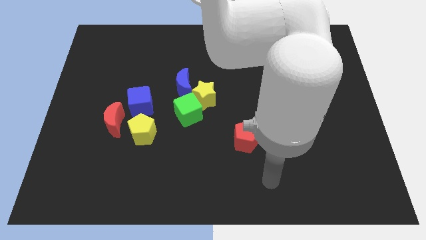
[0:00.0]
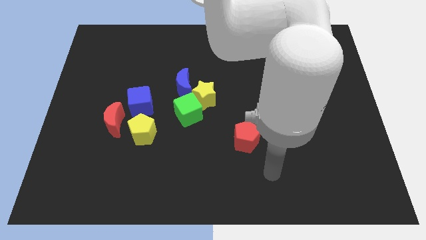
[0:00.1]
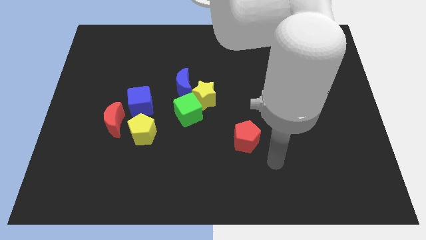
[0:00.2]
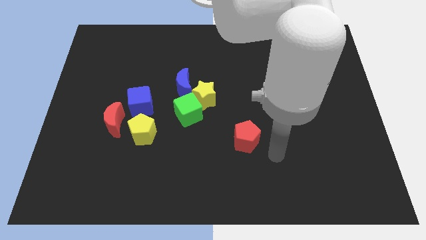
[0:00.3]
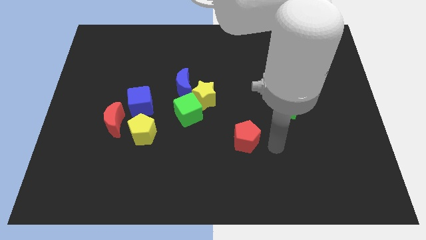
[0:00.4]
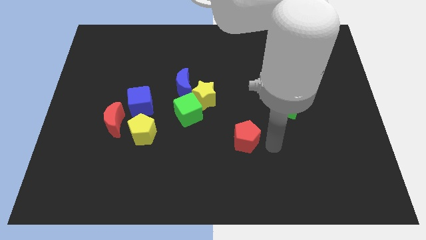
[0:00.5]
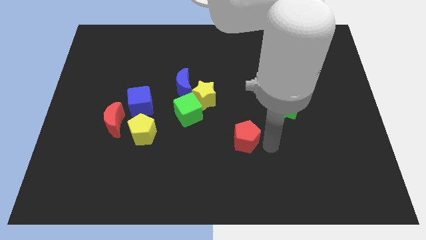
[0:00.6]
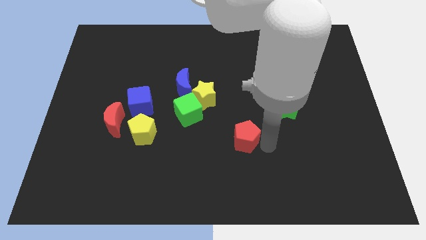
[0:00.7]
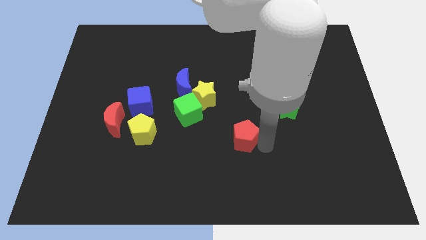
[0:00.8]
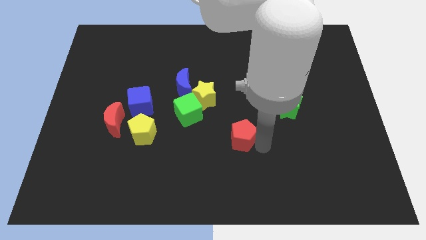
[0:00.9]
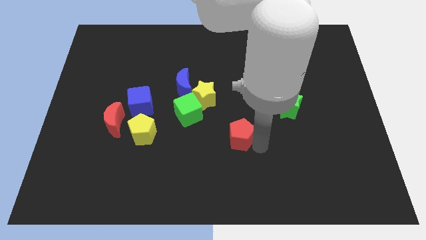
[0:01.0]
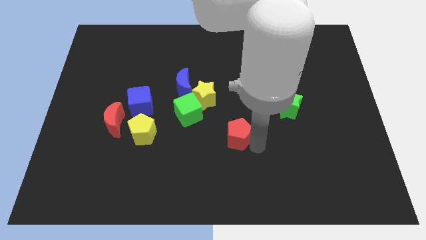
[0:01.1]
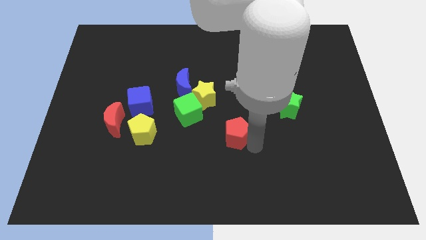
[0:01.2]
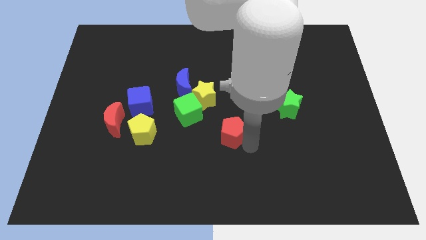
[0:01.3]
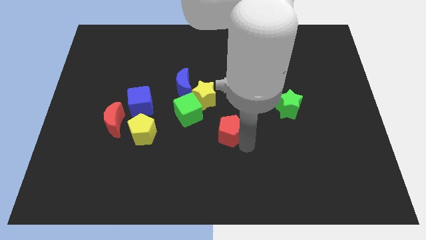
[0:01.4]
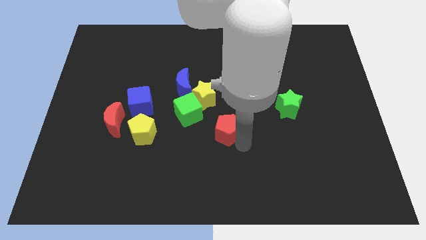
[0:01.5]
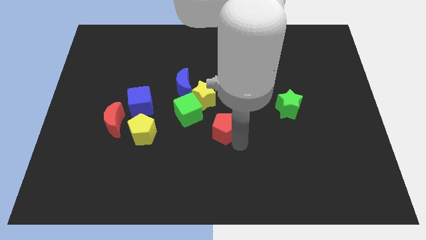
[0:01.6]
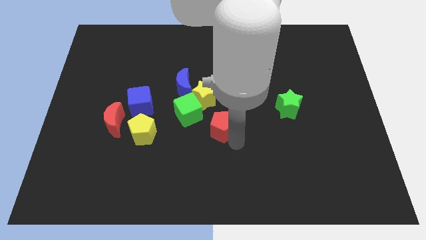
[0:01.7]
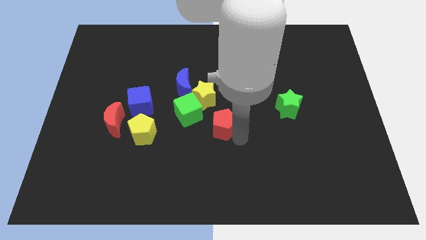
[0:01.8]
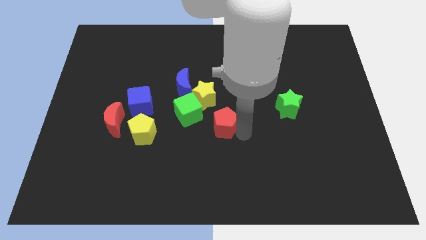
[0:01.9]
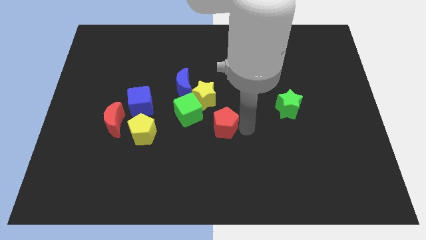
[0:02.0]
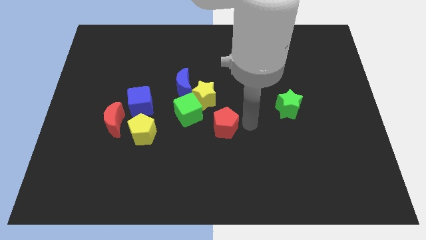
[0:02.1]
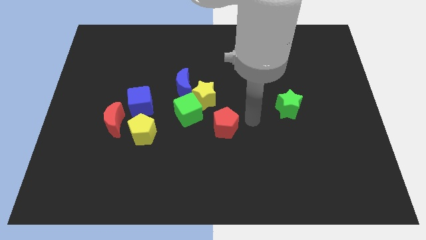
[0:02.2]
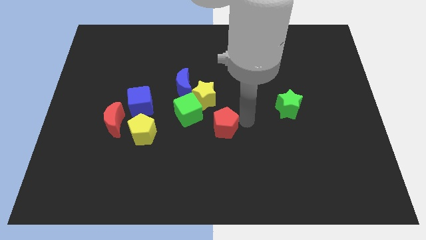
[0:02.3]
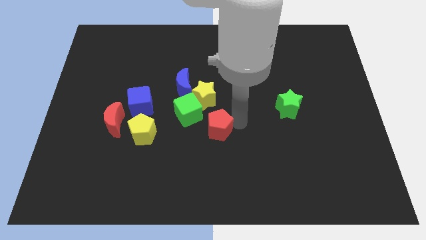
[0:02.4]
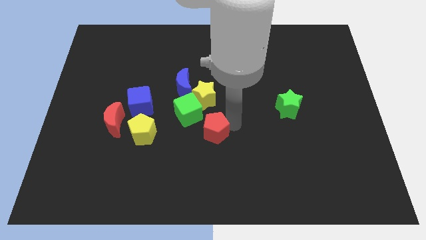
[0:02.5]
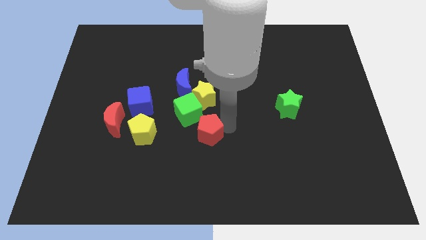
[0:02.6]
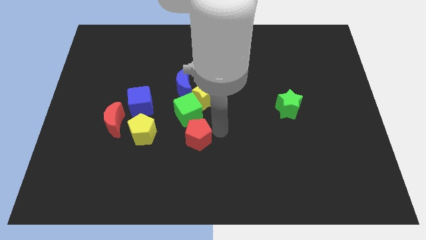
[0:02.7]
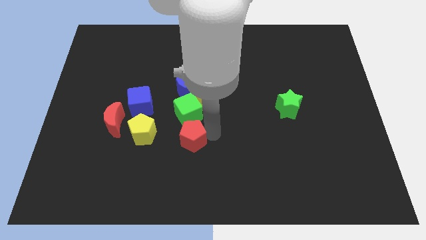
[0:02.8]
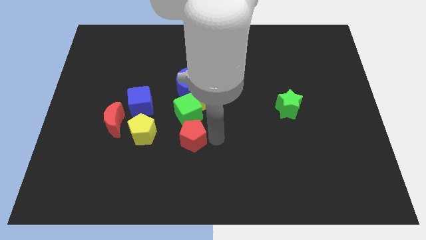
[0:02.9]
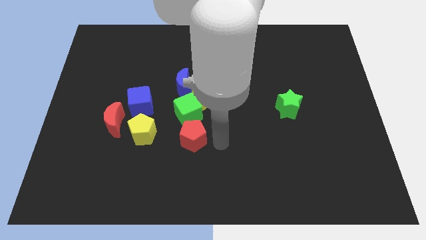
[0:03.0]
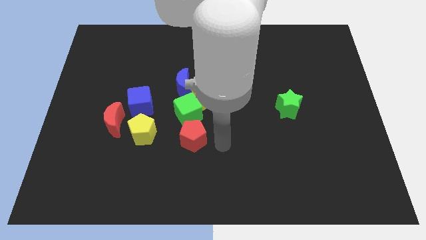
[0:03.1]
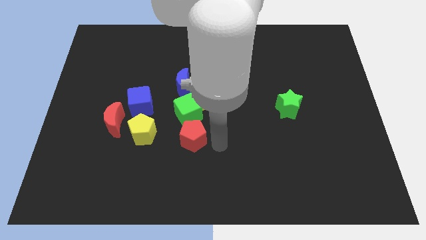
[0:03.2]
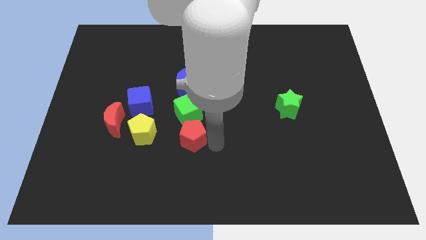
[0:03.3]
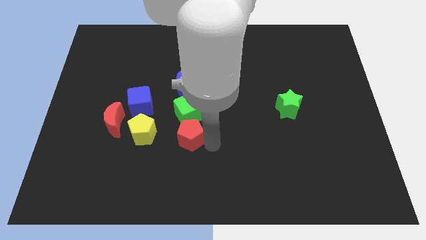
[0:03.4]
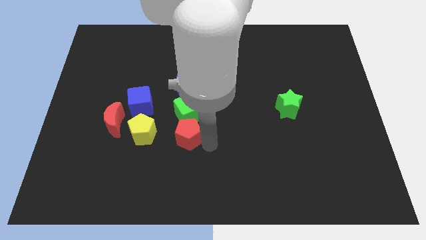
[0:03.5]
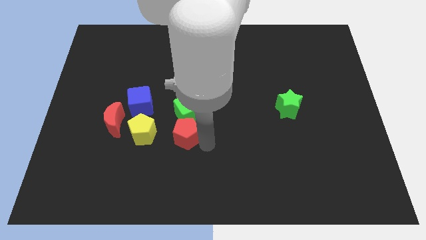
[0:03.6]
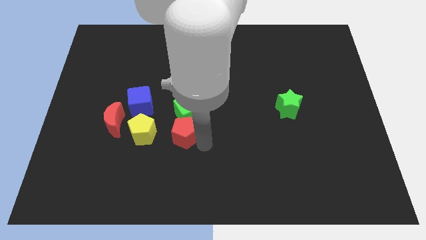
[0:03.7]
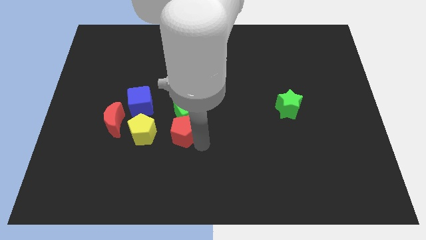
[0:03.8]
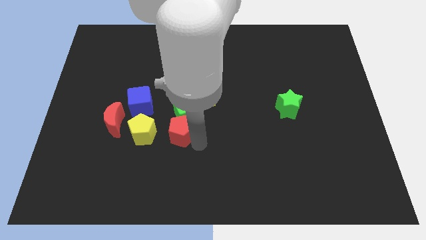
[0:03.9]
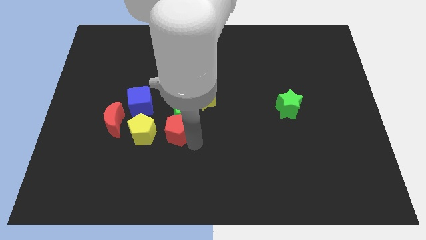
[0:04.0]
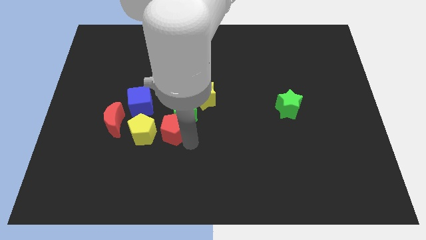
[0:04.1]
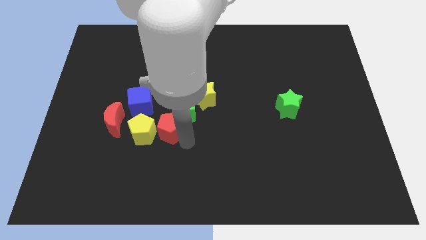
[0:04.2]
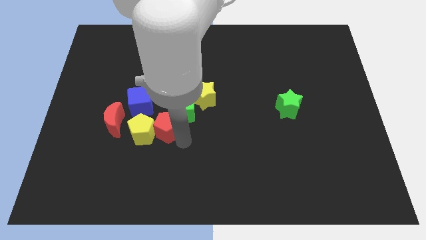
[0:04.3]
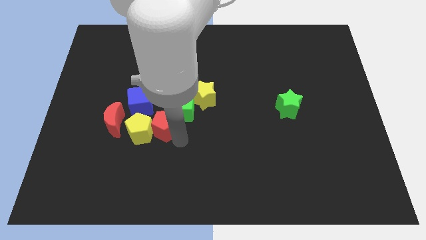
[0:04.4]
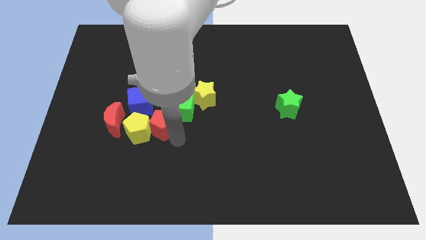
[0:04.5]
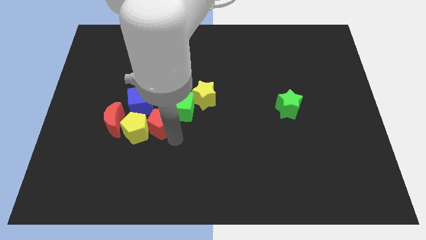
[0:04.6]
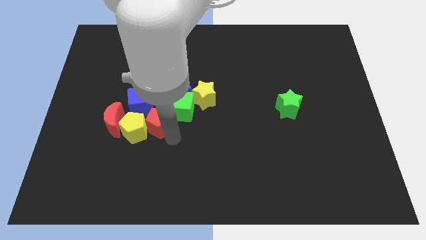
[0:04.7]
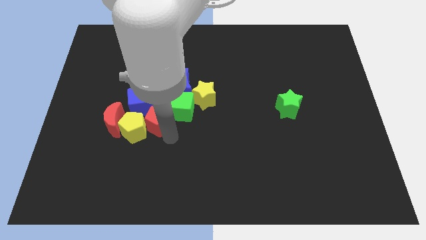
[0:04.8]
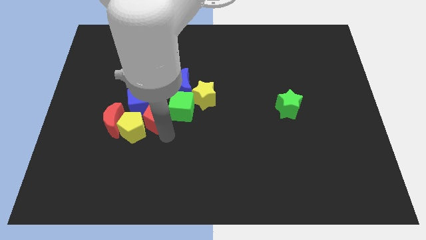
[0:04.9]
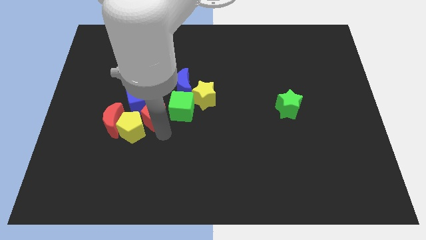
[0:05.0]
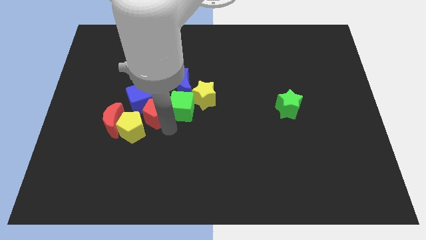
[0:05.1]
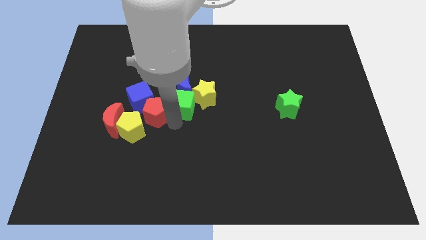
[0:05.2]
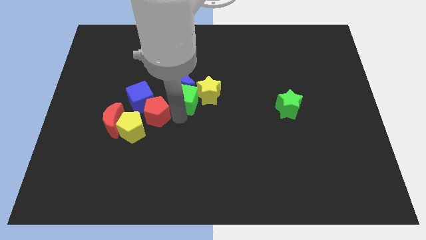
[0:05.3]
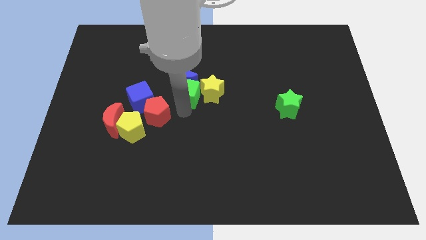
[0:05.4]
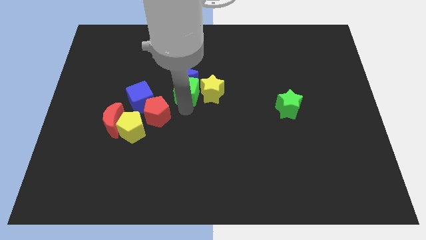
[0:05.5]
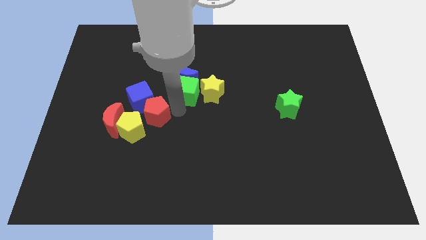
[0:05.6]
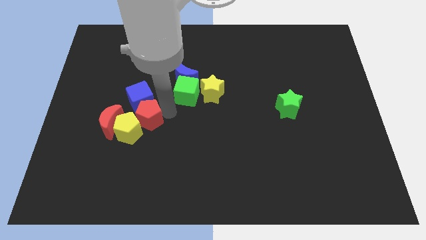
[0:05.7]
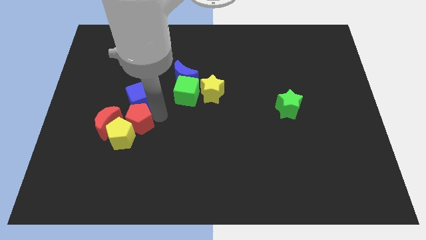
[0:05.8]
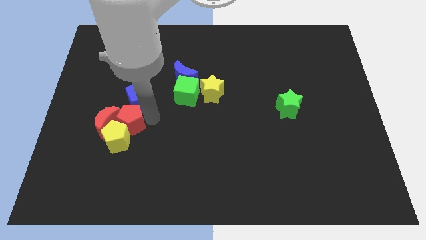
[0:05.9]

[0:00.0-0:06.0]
put the red pentagon next to the red moon

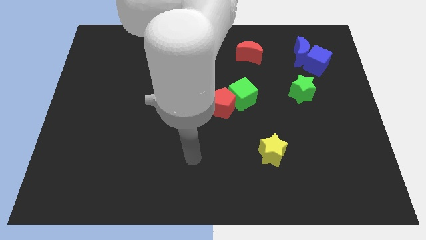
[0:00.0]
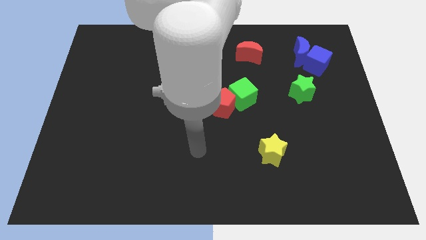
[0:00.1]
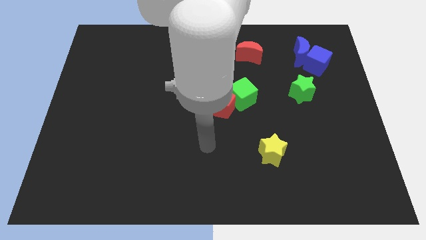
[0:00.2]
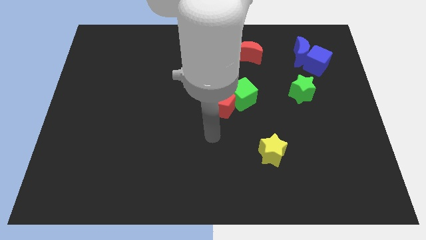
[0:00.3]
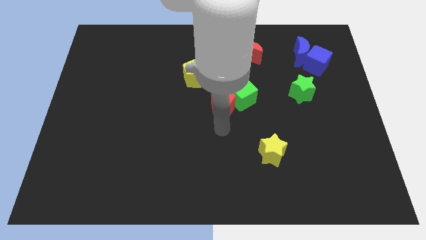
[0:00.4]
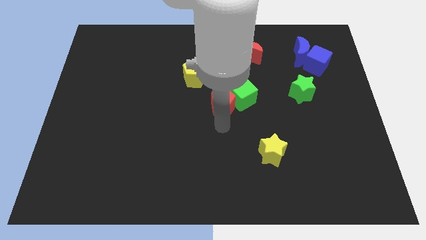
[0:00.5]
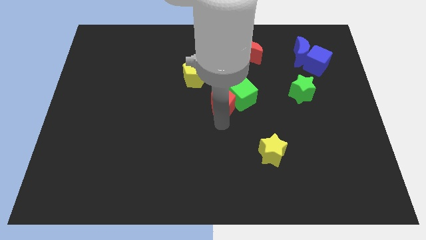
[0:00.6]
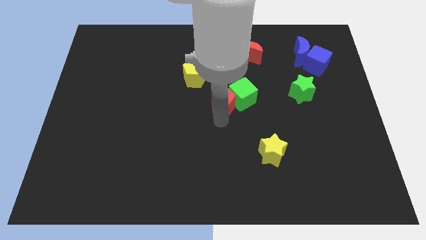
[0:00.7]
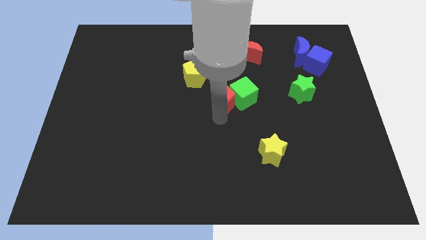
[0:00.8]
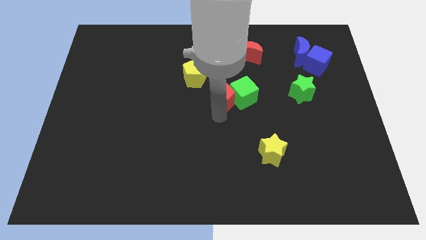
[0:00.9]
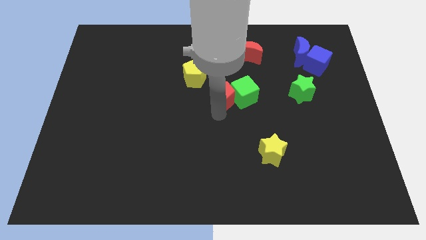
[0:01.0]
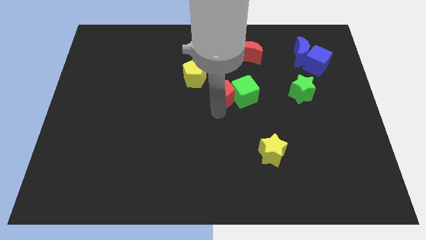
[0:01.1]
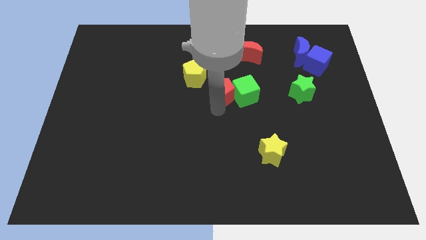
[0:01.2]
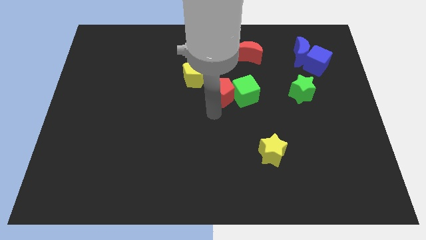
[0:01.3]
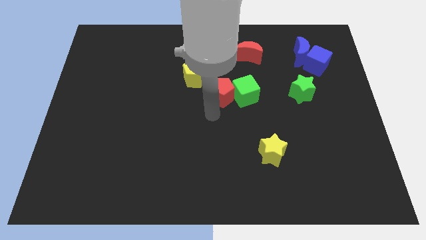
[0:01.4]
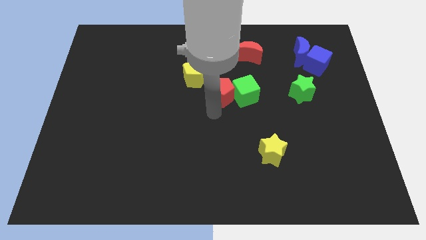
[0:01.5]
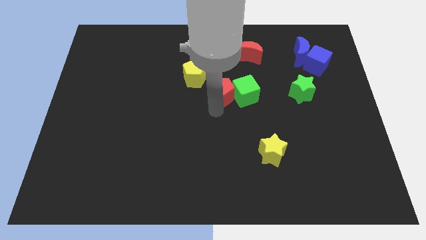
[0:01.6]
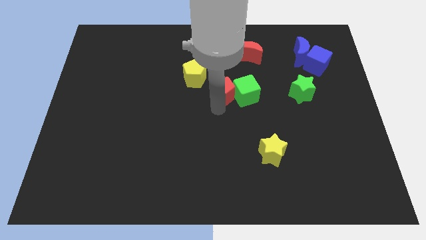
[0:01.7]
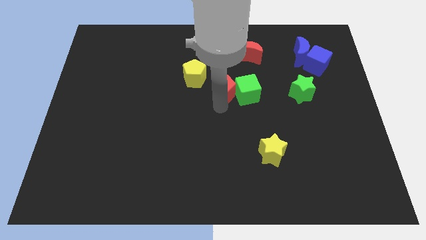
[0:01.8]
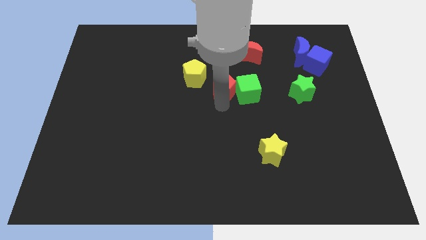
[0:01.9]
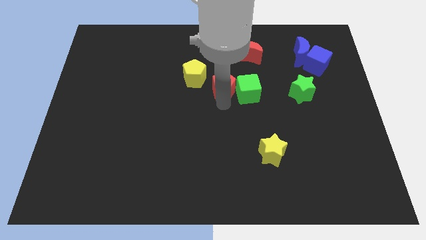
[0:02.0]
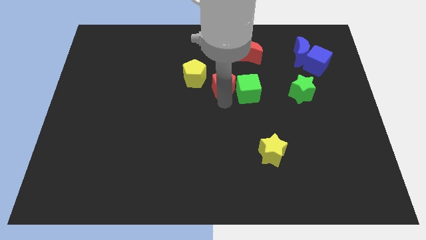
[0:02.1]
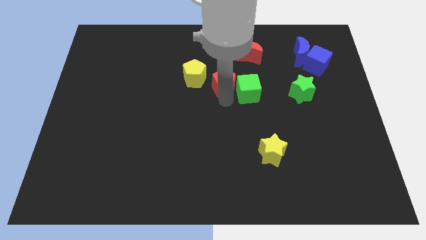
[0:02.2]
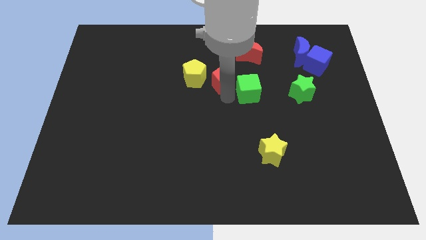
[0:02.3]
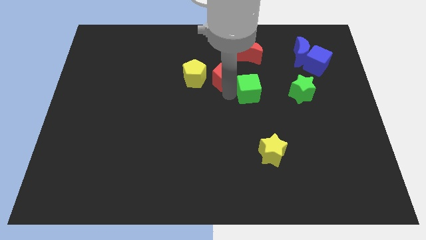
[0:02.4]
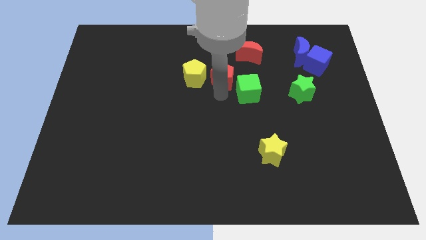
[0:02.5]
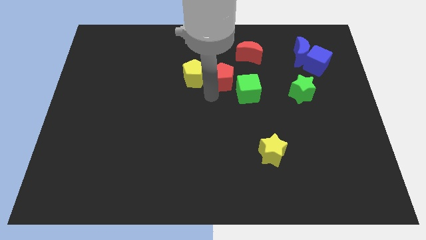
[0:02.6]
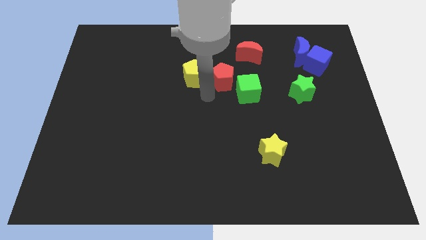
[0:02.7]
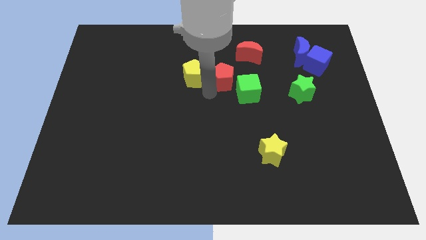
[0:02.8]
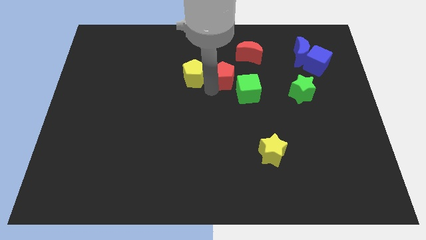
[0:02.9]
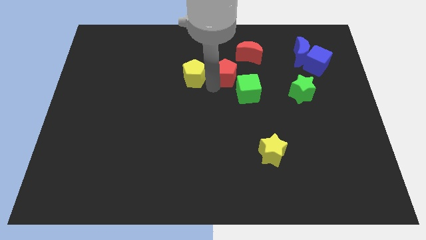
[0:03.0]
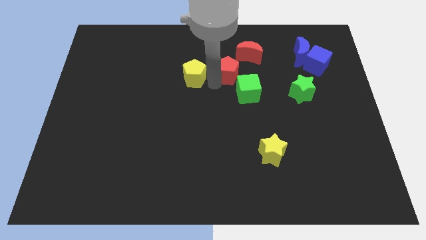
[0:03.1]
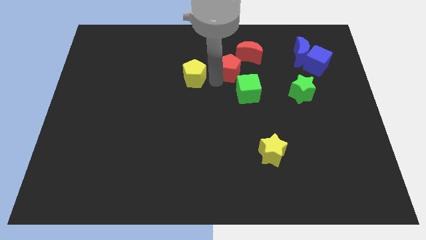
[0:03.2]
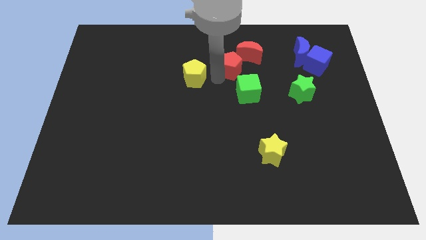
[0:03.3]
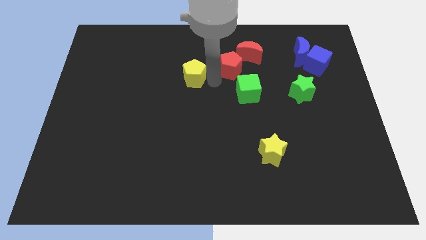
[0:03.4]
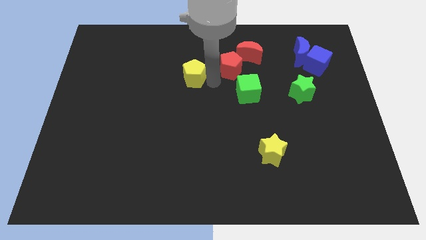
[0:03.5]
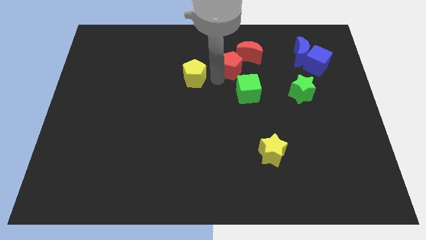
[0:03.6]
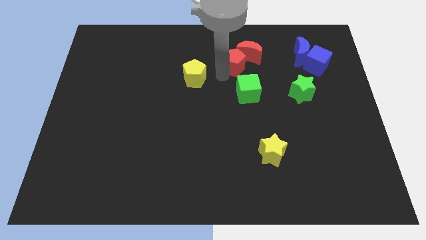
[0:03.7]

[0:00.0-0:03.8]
push the red pentagon next to the red moon
